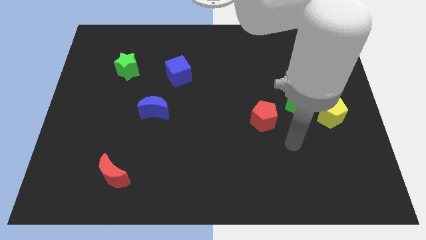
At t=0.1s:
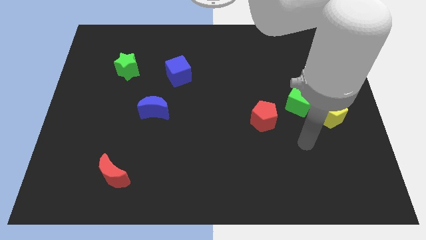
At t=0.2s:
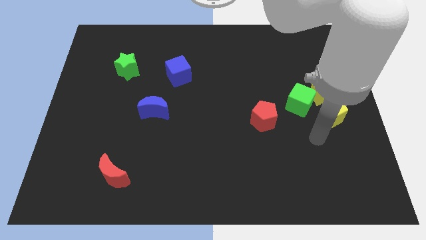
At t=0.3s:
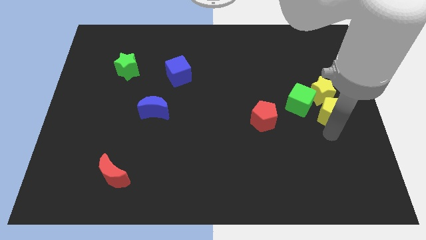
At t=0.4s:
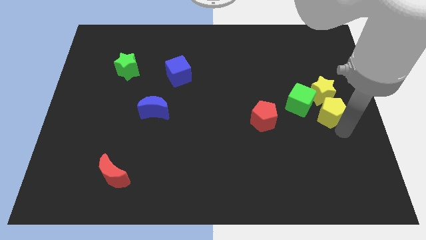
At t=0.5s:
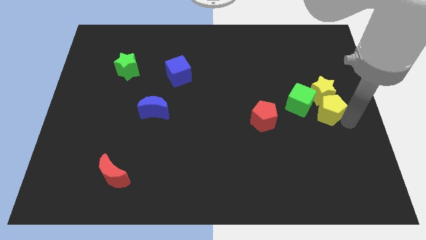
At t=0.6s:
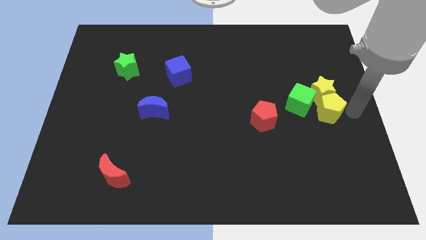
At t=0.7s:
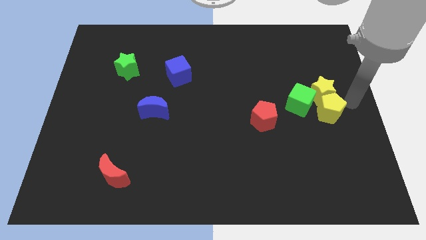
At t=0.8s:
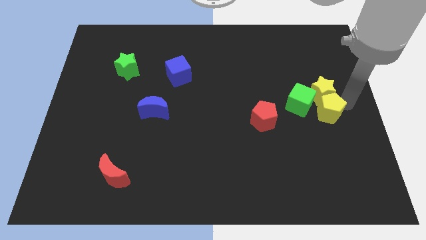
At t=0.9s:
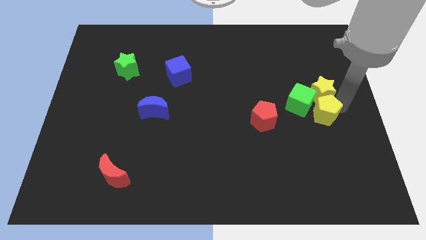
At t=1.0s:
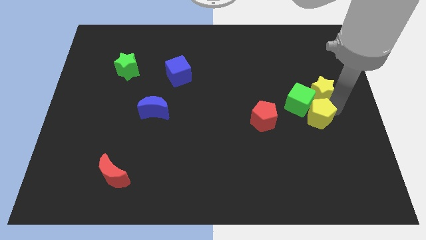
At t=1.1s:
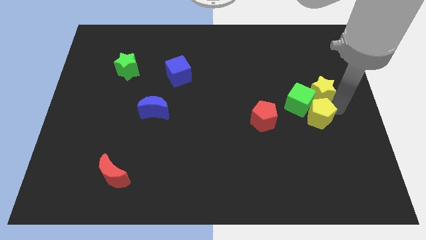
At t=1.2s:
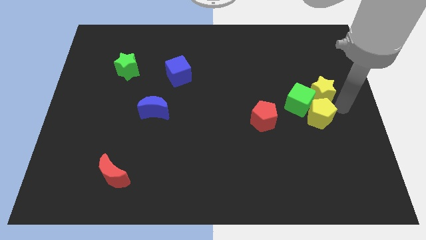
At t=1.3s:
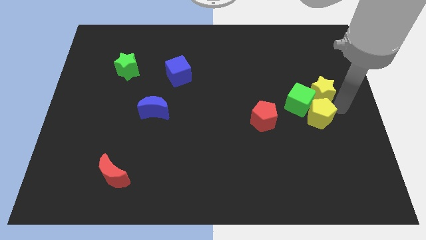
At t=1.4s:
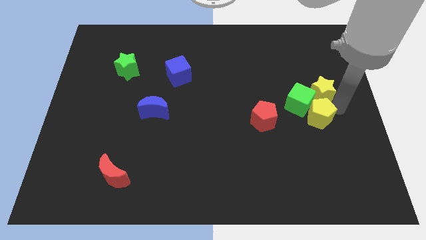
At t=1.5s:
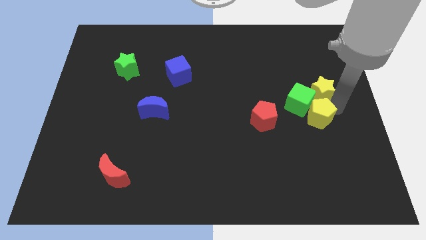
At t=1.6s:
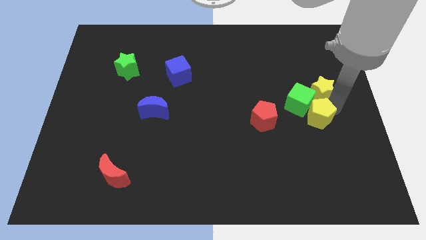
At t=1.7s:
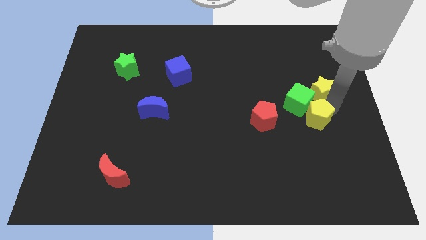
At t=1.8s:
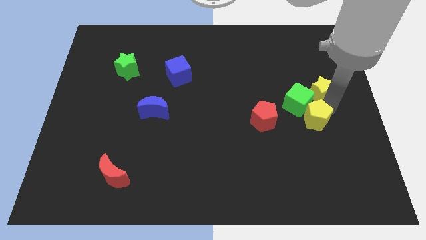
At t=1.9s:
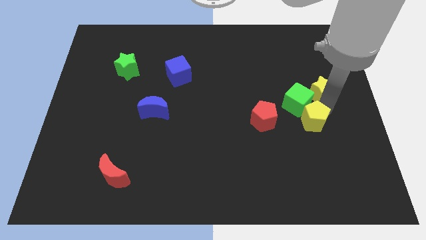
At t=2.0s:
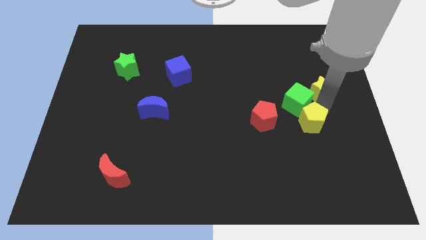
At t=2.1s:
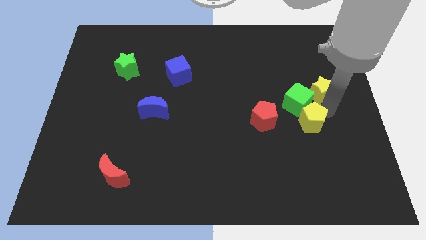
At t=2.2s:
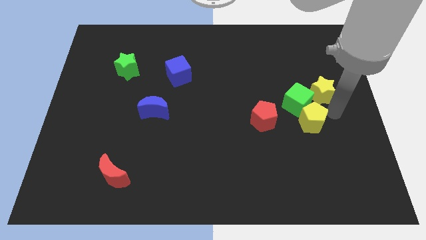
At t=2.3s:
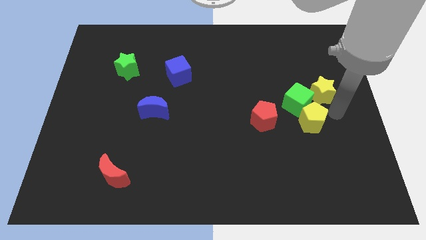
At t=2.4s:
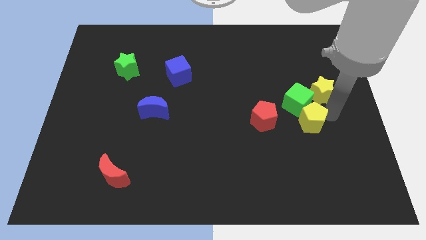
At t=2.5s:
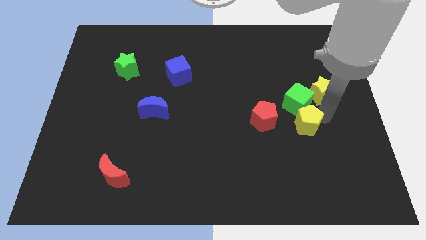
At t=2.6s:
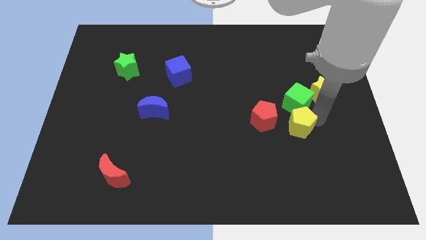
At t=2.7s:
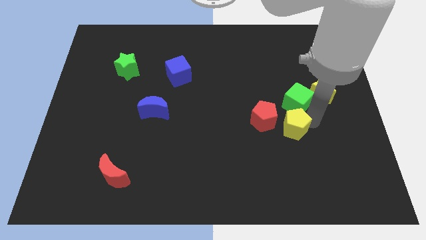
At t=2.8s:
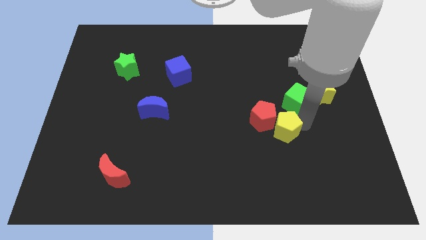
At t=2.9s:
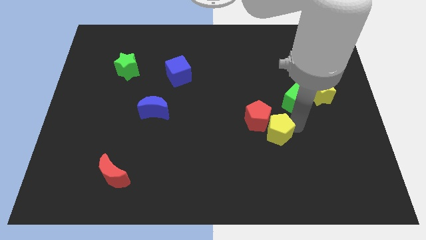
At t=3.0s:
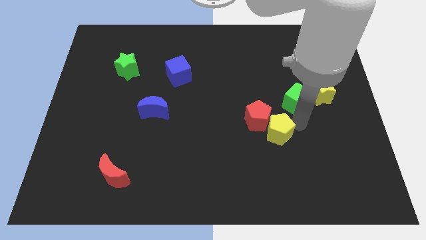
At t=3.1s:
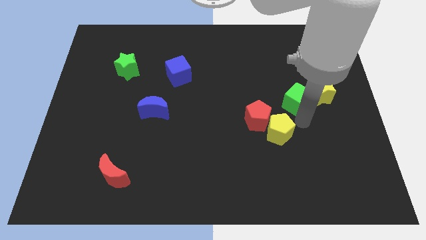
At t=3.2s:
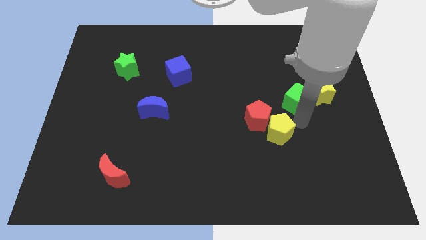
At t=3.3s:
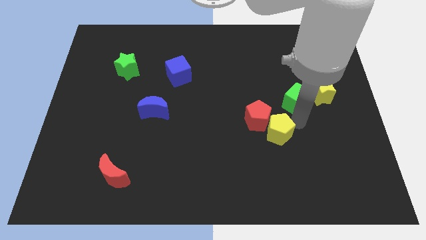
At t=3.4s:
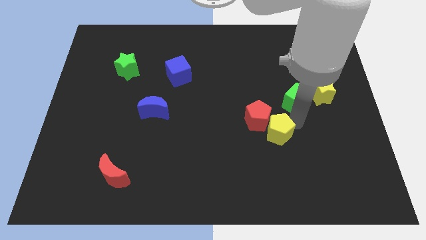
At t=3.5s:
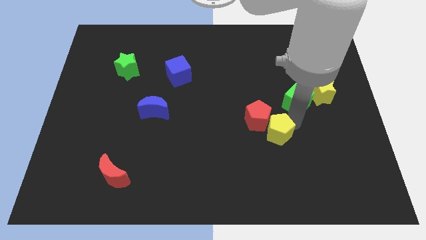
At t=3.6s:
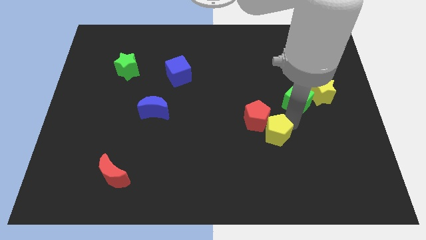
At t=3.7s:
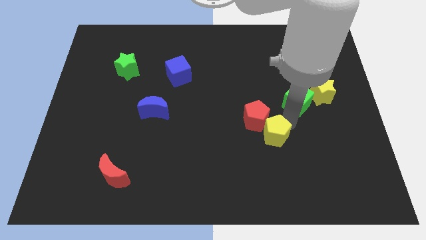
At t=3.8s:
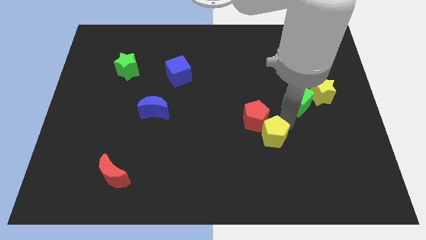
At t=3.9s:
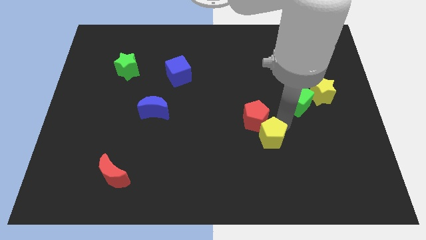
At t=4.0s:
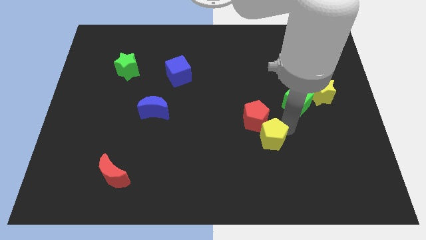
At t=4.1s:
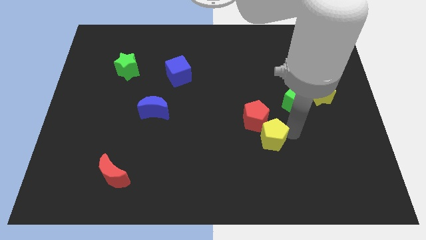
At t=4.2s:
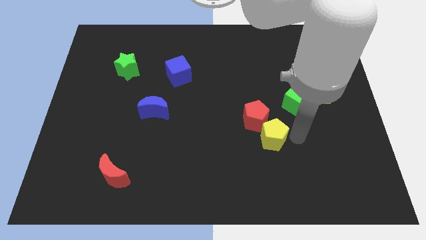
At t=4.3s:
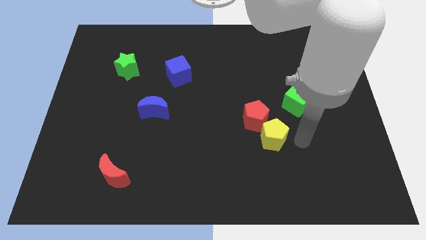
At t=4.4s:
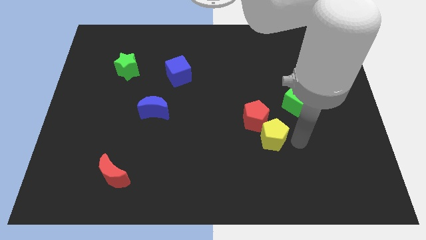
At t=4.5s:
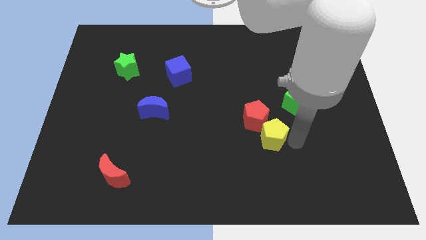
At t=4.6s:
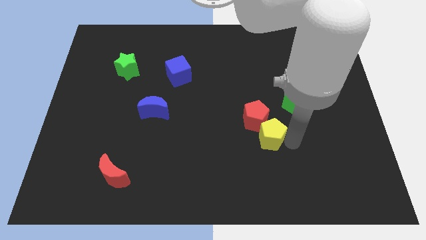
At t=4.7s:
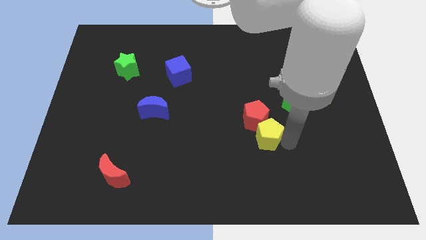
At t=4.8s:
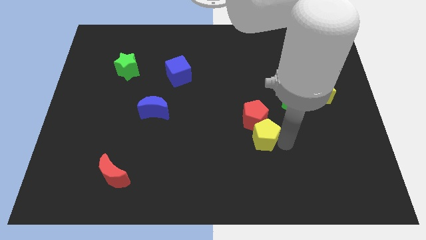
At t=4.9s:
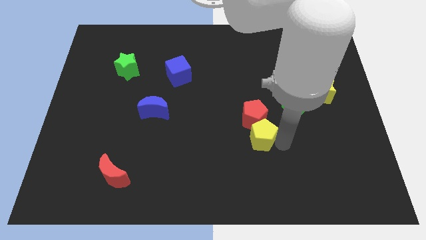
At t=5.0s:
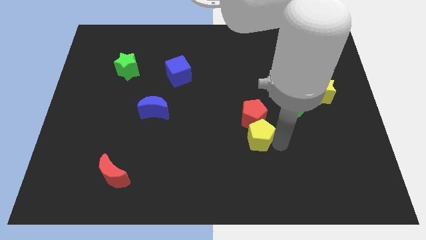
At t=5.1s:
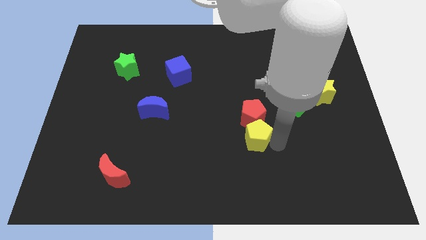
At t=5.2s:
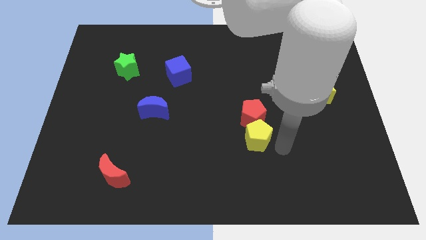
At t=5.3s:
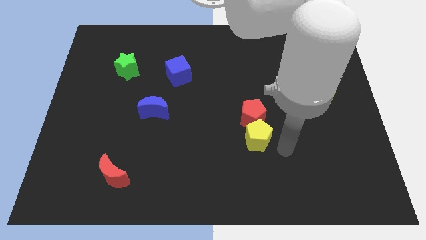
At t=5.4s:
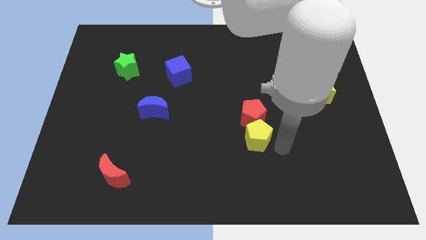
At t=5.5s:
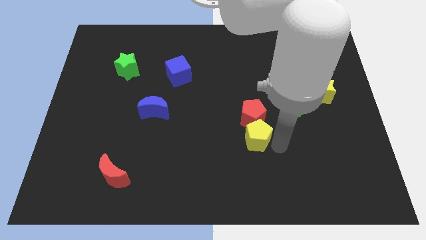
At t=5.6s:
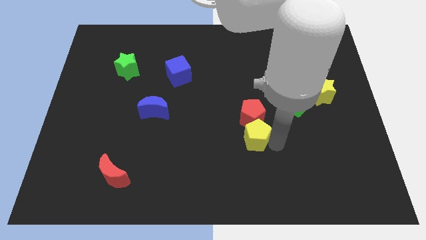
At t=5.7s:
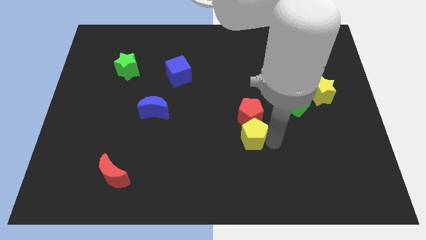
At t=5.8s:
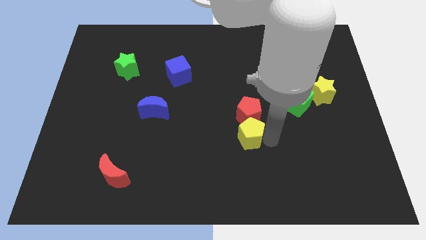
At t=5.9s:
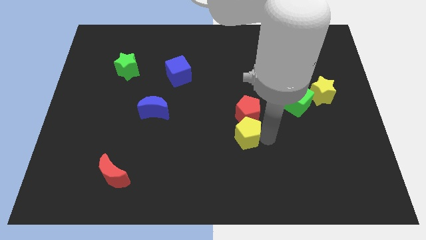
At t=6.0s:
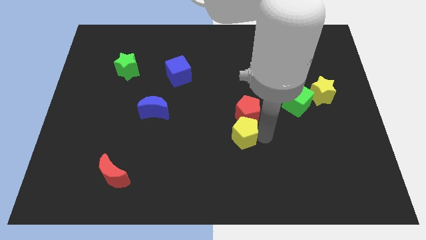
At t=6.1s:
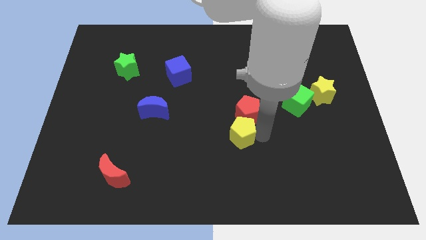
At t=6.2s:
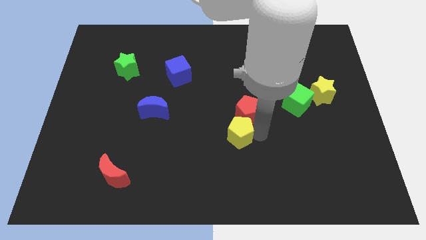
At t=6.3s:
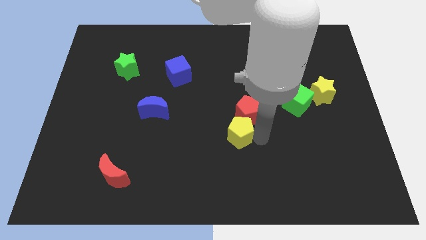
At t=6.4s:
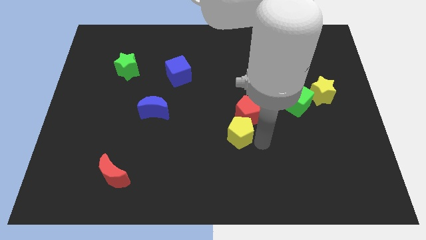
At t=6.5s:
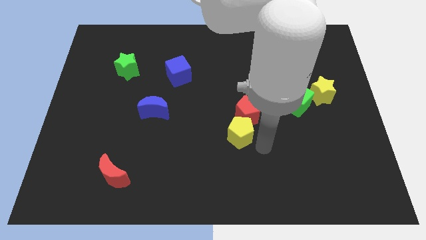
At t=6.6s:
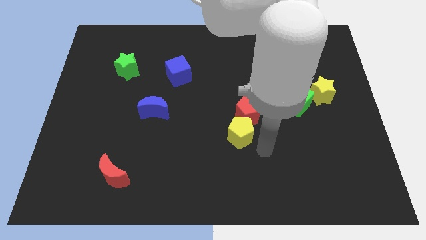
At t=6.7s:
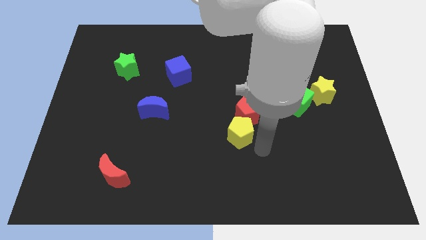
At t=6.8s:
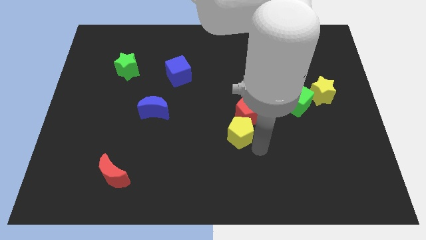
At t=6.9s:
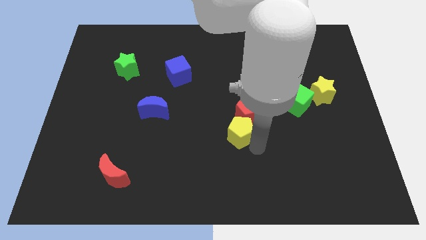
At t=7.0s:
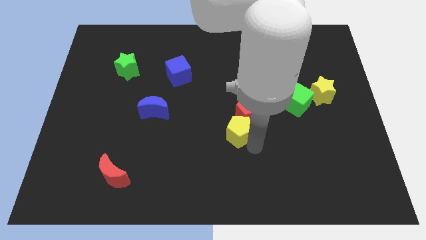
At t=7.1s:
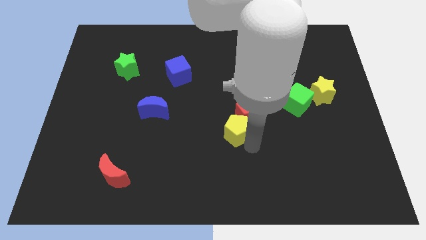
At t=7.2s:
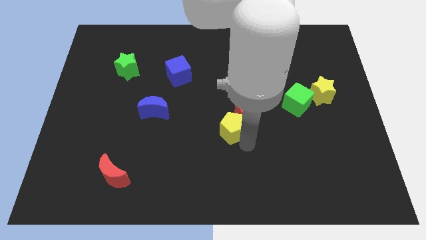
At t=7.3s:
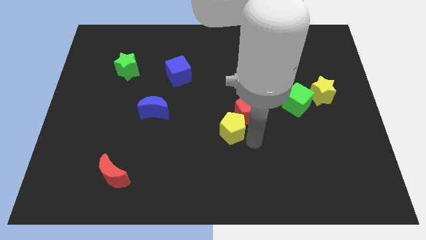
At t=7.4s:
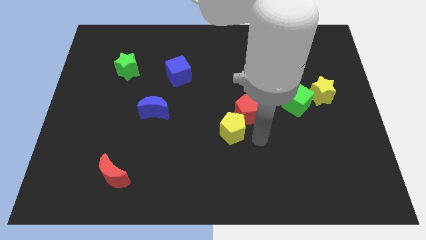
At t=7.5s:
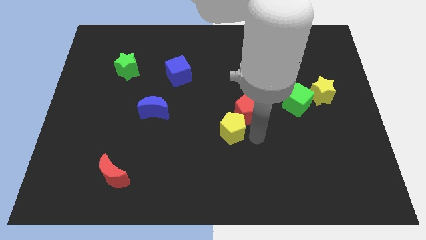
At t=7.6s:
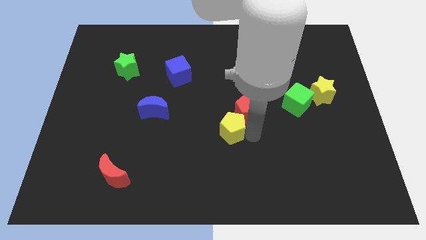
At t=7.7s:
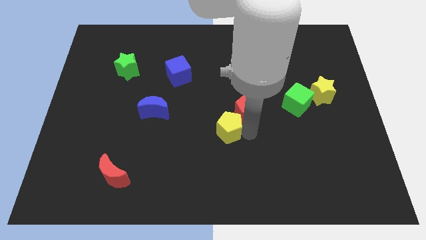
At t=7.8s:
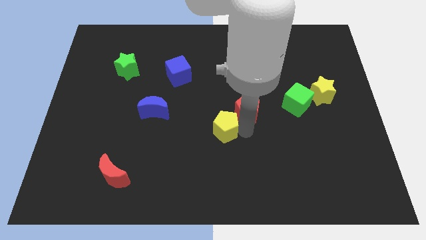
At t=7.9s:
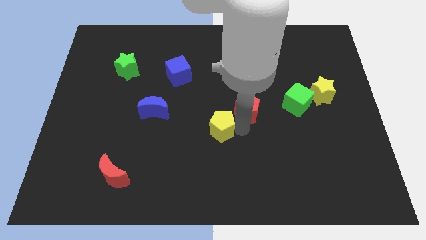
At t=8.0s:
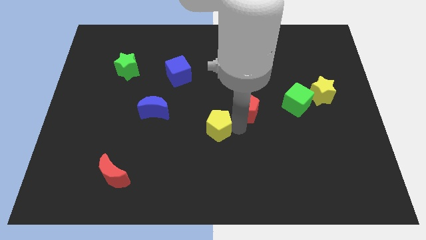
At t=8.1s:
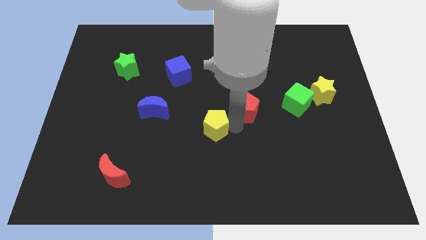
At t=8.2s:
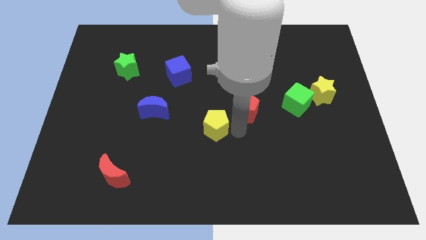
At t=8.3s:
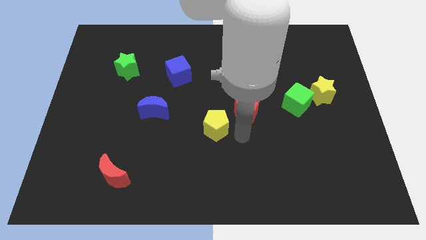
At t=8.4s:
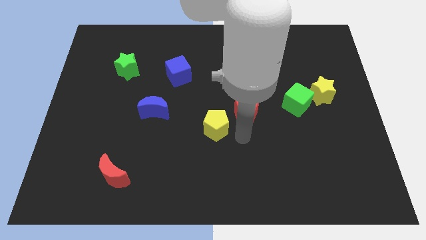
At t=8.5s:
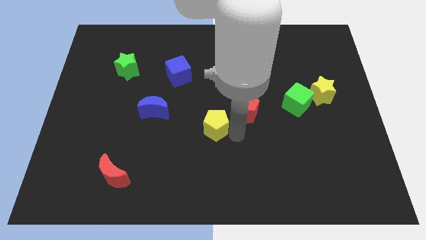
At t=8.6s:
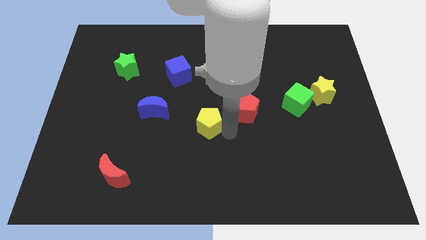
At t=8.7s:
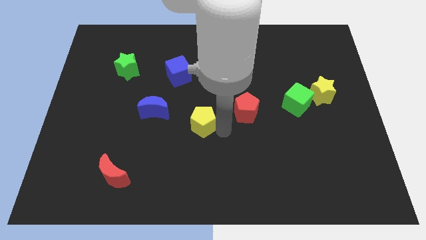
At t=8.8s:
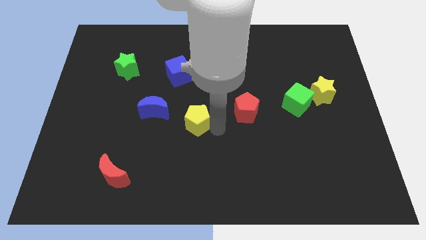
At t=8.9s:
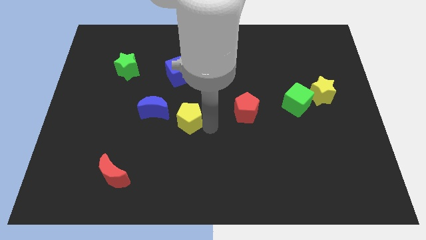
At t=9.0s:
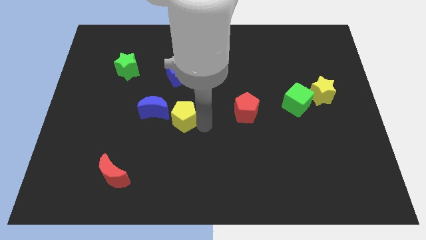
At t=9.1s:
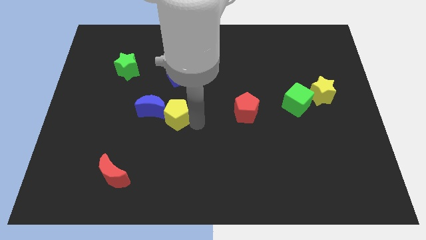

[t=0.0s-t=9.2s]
push the yellow pentagon to the blue moon
